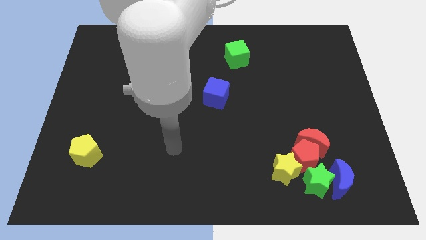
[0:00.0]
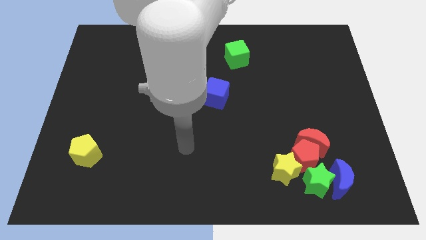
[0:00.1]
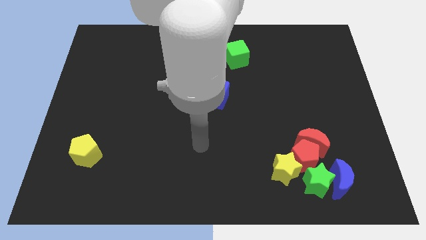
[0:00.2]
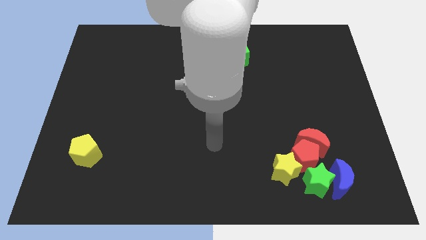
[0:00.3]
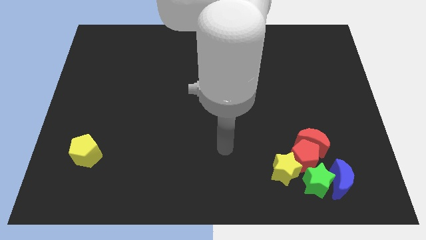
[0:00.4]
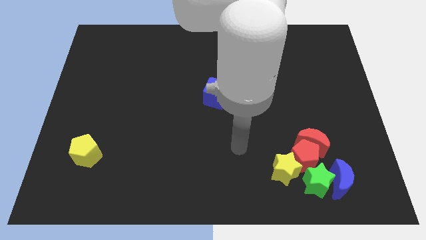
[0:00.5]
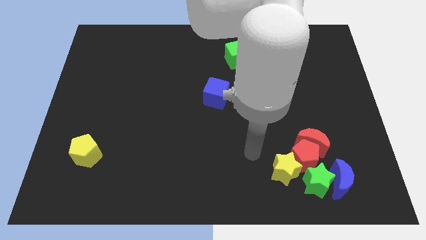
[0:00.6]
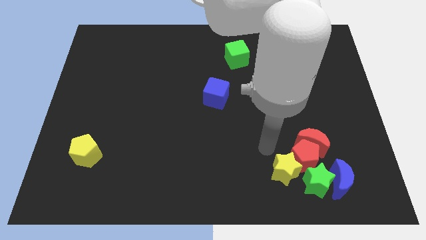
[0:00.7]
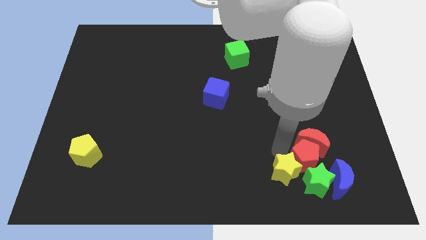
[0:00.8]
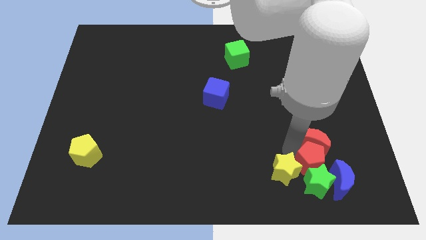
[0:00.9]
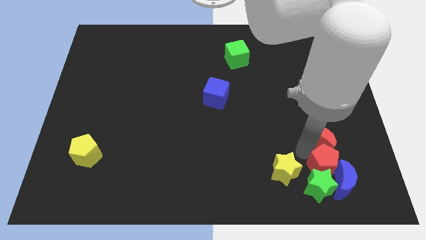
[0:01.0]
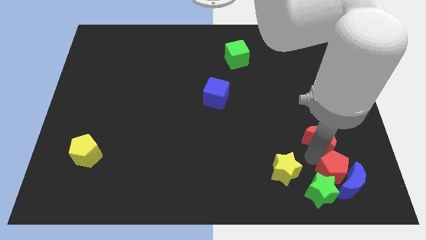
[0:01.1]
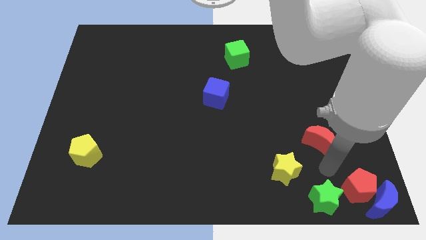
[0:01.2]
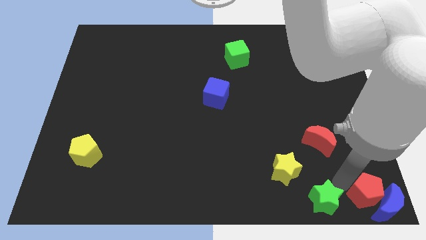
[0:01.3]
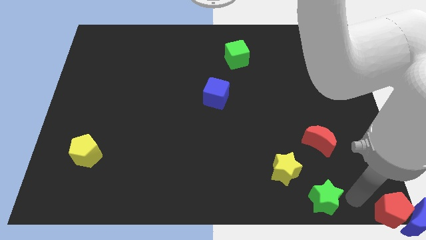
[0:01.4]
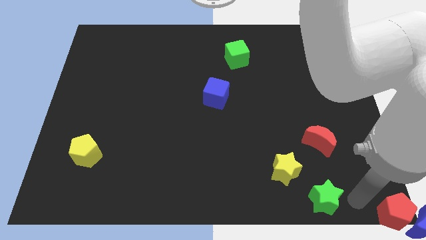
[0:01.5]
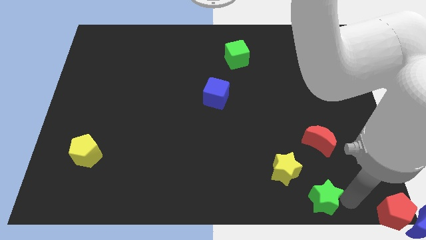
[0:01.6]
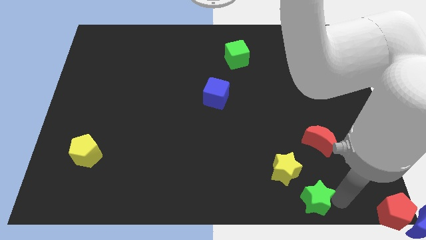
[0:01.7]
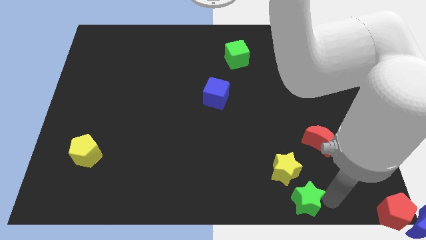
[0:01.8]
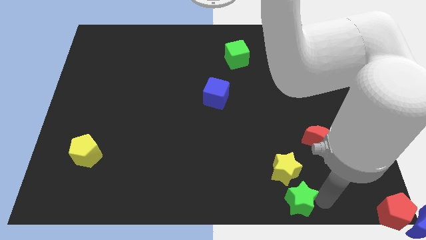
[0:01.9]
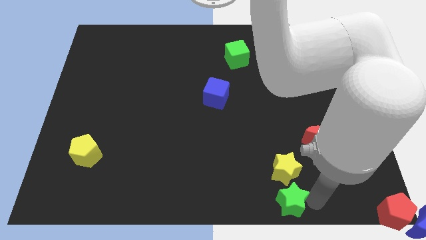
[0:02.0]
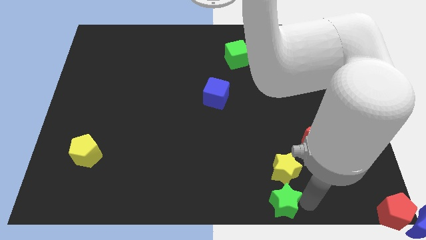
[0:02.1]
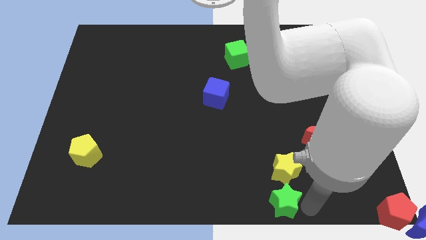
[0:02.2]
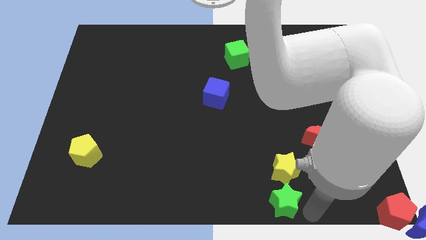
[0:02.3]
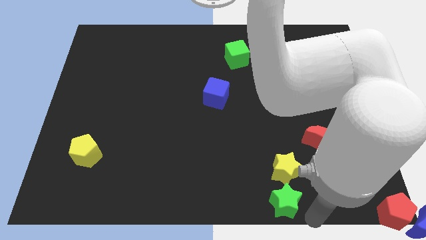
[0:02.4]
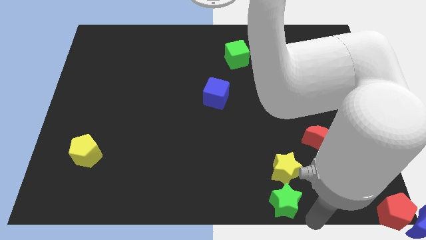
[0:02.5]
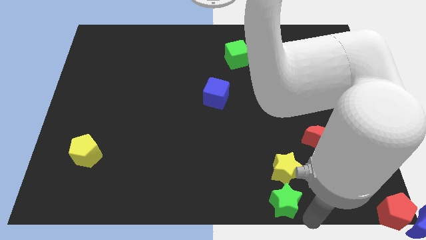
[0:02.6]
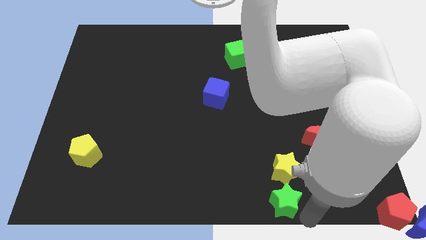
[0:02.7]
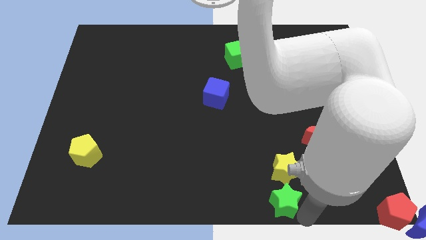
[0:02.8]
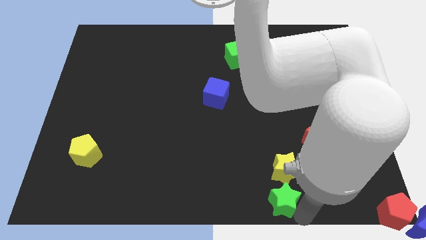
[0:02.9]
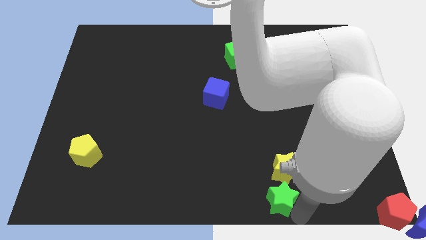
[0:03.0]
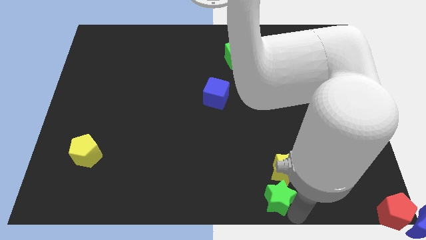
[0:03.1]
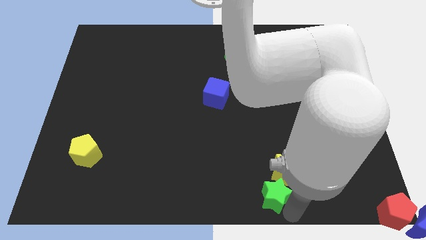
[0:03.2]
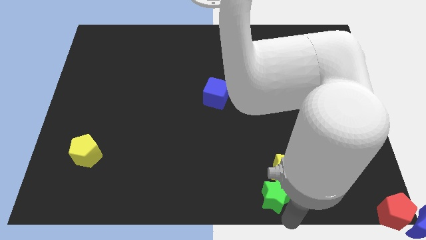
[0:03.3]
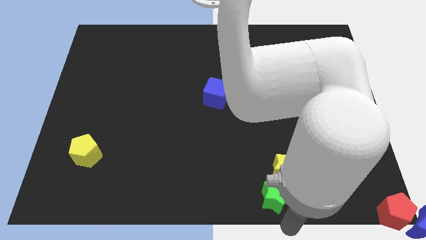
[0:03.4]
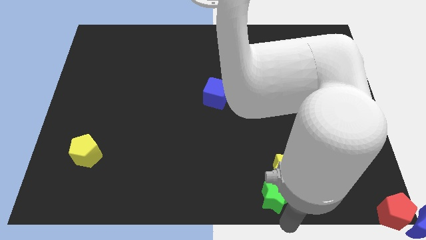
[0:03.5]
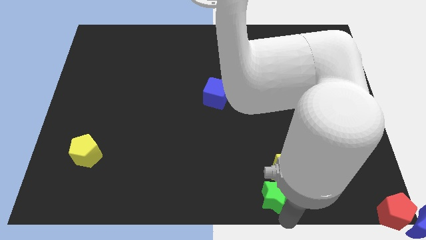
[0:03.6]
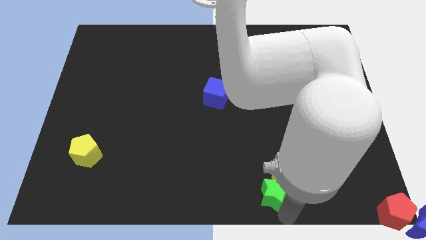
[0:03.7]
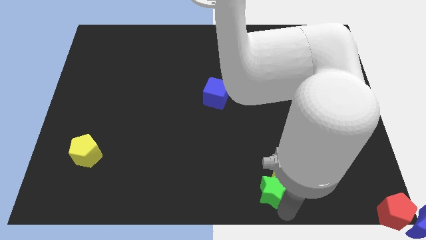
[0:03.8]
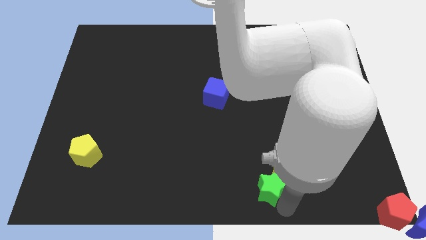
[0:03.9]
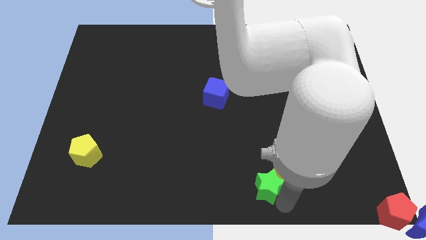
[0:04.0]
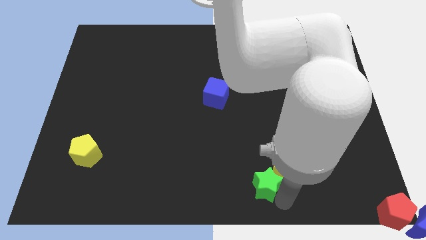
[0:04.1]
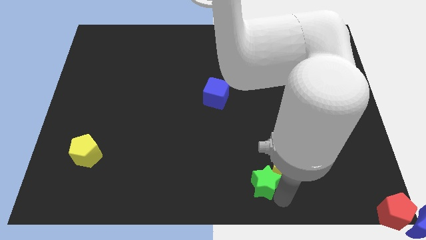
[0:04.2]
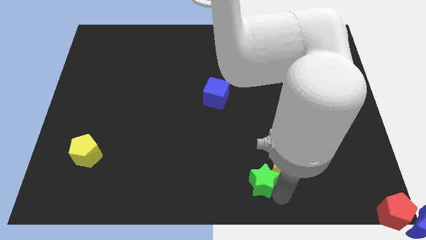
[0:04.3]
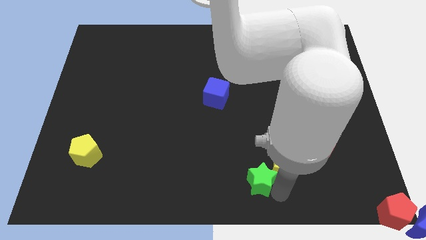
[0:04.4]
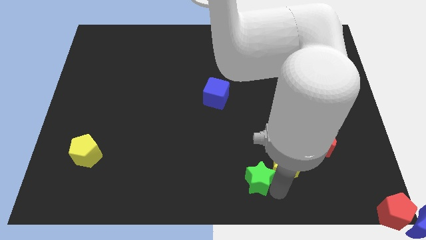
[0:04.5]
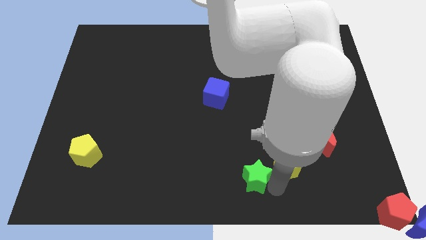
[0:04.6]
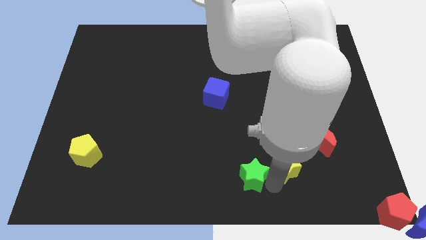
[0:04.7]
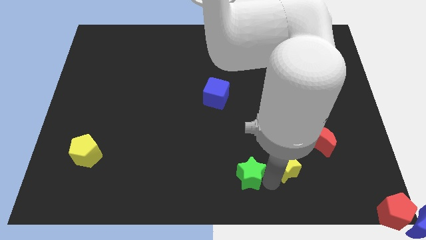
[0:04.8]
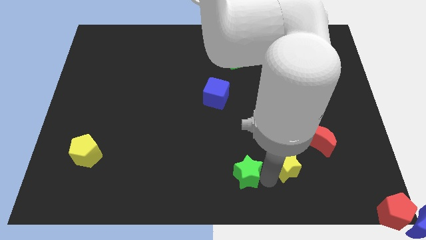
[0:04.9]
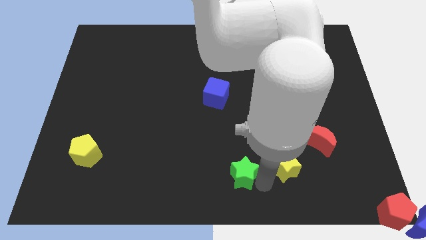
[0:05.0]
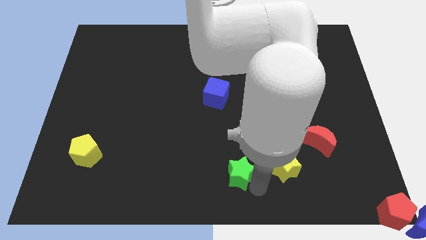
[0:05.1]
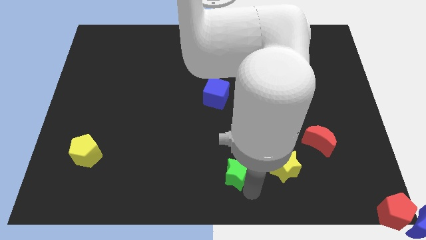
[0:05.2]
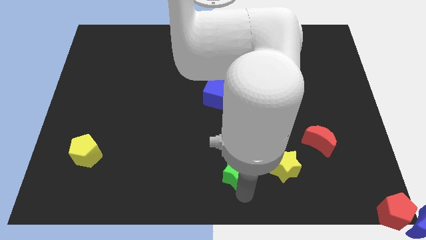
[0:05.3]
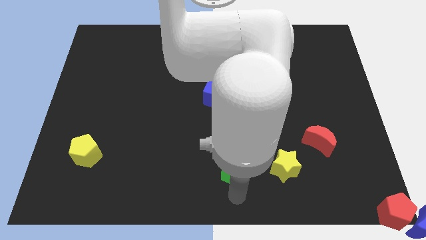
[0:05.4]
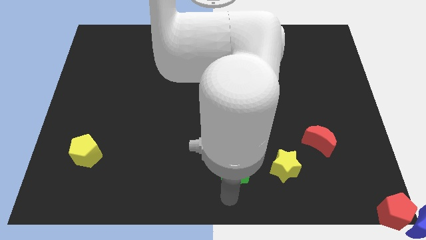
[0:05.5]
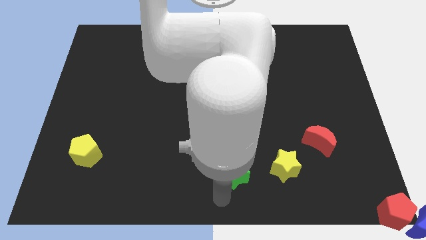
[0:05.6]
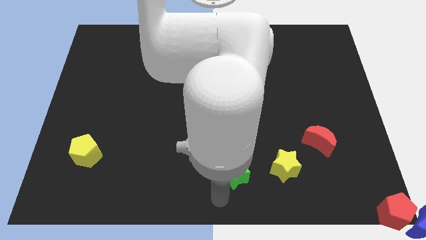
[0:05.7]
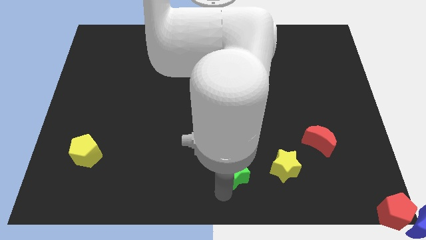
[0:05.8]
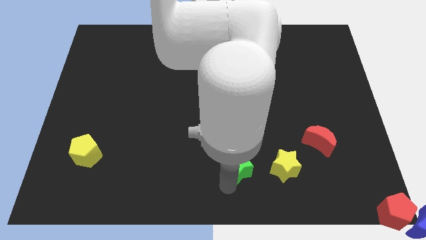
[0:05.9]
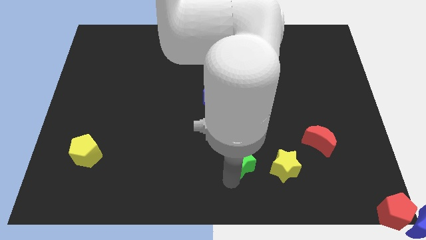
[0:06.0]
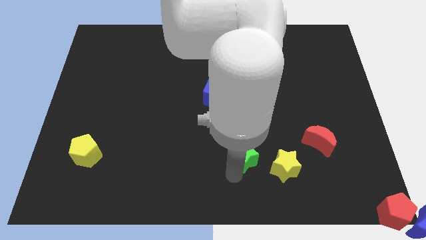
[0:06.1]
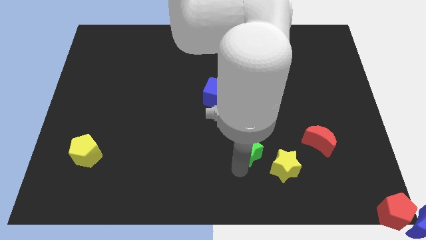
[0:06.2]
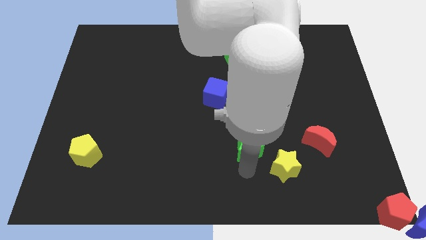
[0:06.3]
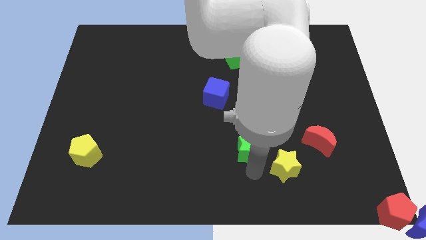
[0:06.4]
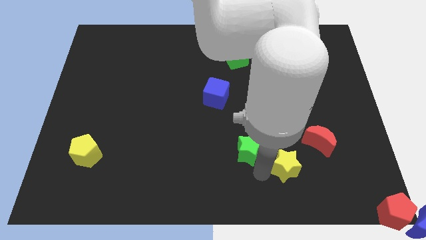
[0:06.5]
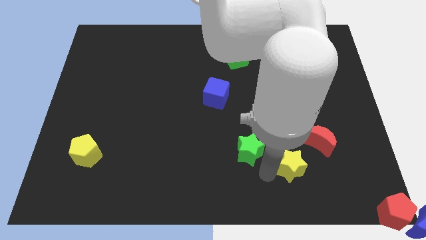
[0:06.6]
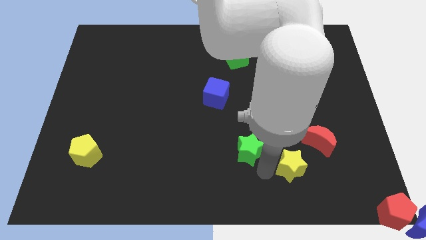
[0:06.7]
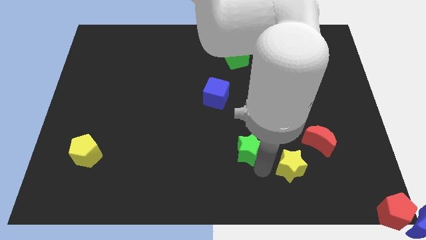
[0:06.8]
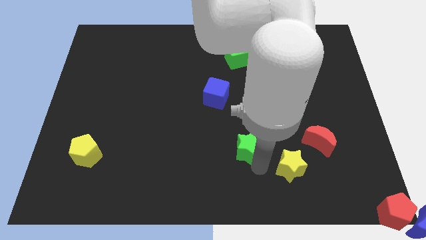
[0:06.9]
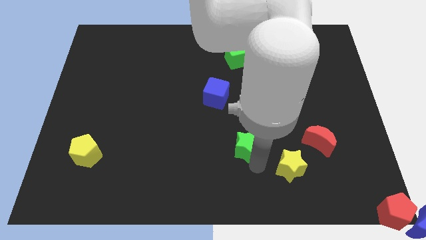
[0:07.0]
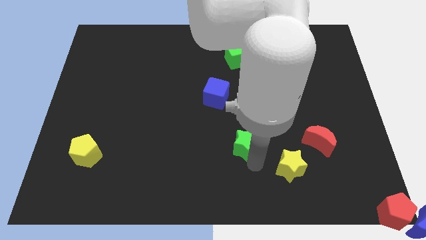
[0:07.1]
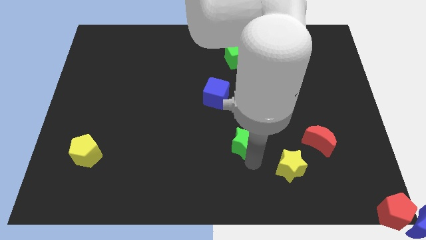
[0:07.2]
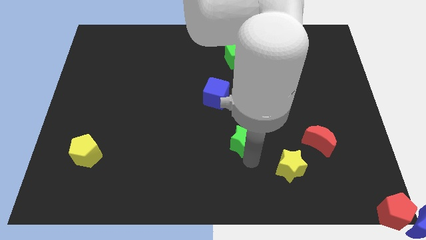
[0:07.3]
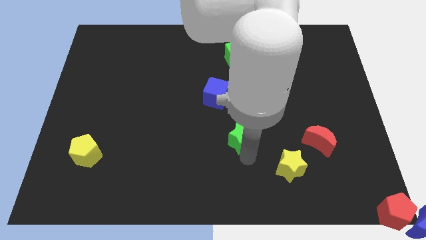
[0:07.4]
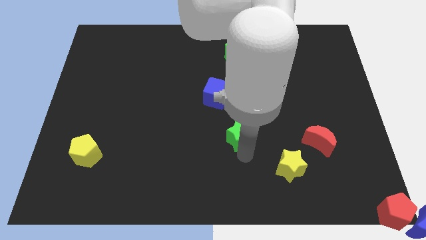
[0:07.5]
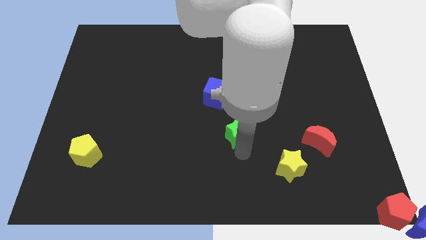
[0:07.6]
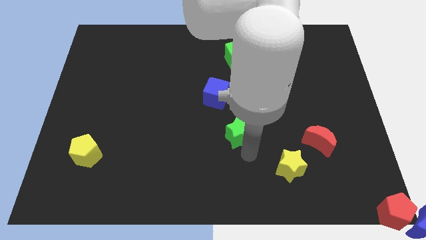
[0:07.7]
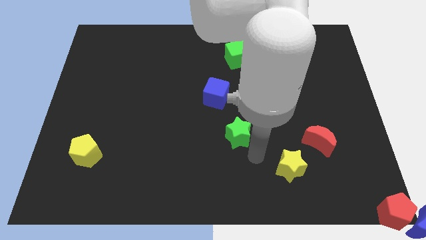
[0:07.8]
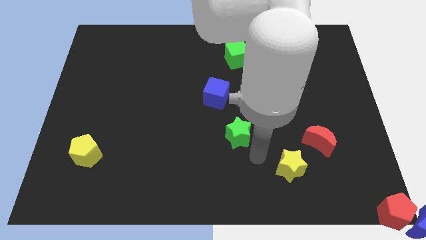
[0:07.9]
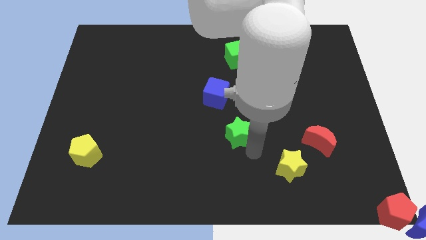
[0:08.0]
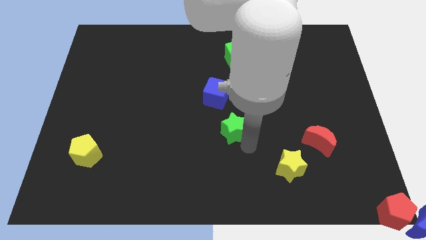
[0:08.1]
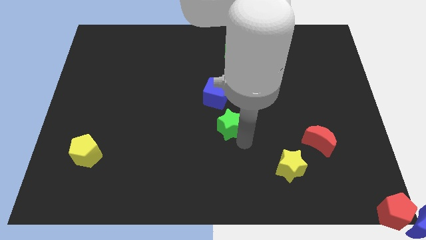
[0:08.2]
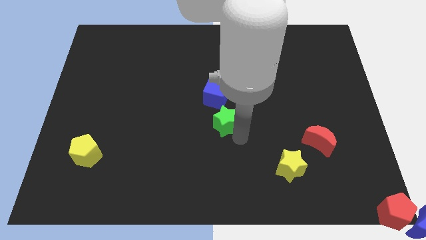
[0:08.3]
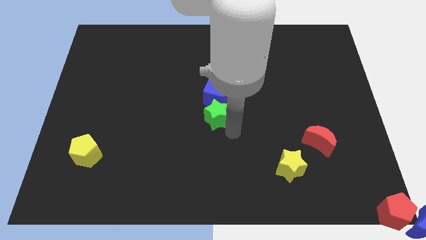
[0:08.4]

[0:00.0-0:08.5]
push the green star to the blue cube
